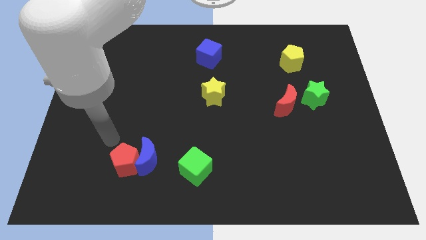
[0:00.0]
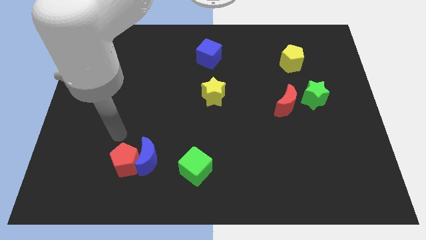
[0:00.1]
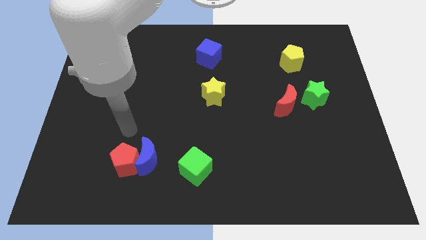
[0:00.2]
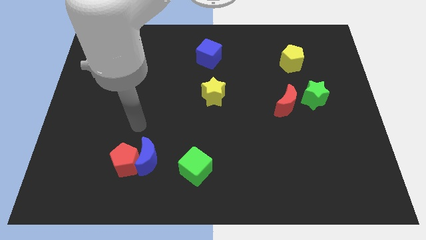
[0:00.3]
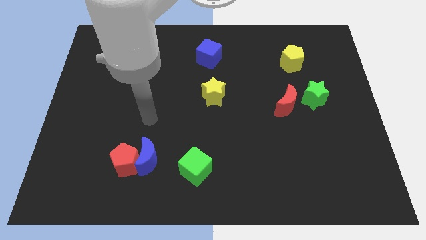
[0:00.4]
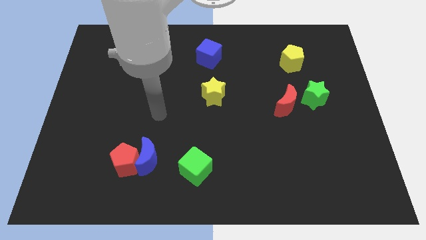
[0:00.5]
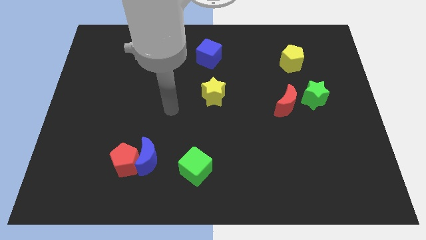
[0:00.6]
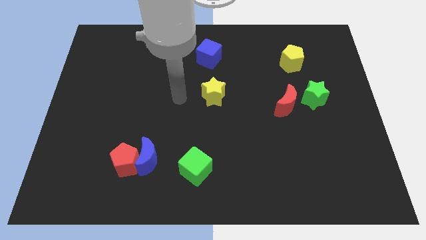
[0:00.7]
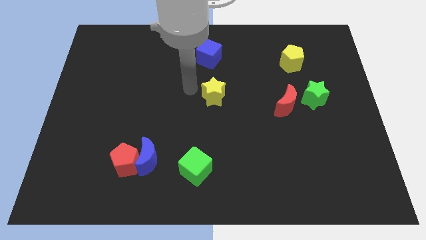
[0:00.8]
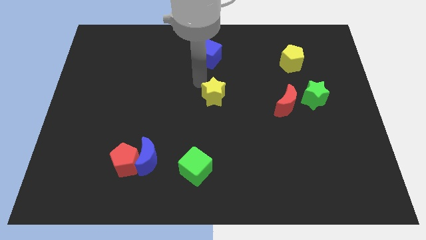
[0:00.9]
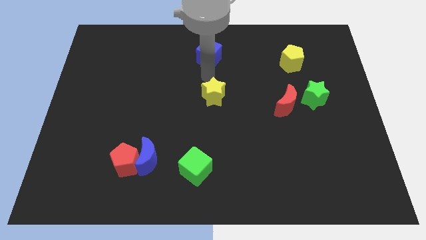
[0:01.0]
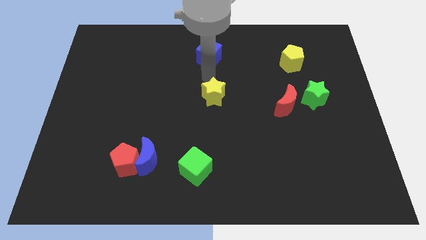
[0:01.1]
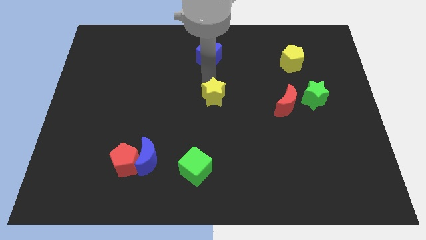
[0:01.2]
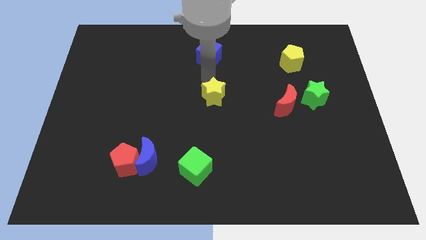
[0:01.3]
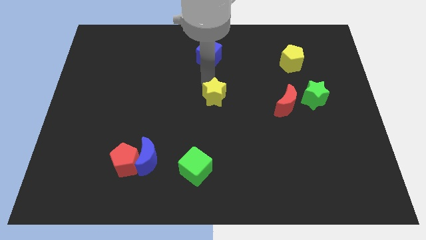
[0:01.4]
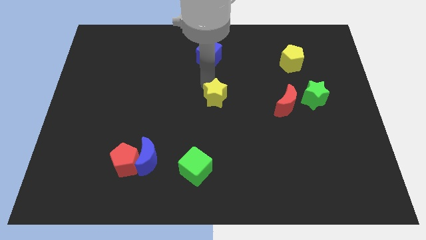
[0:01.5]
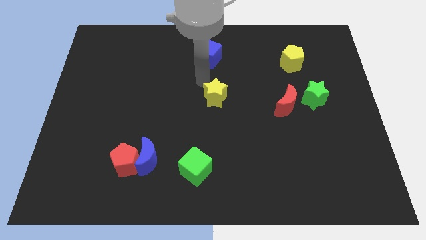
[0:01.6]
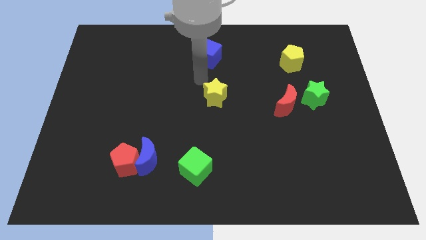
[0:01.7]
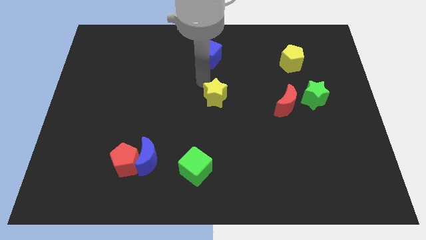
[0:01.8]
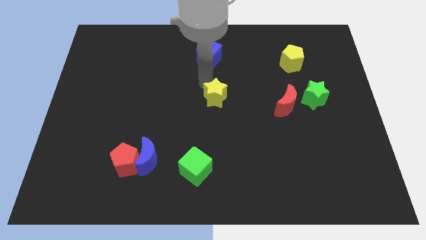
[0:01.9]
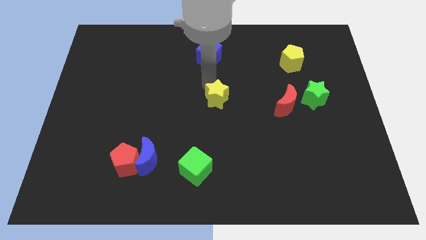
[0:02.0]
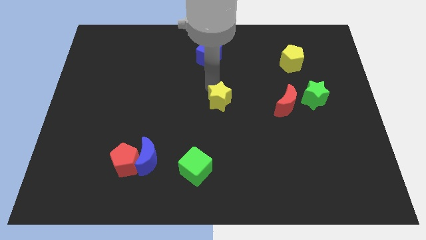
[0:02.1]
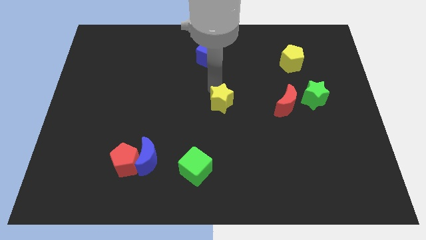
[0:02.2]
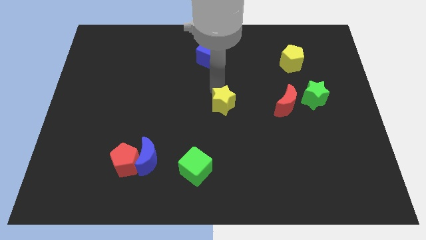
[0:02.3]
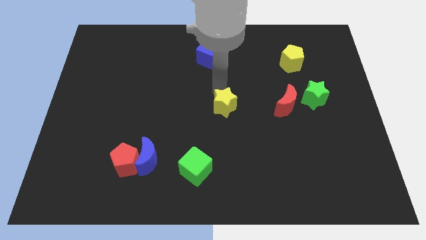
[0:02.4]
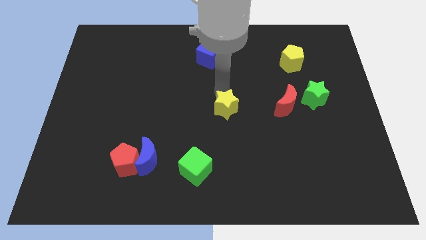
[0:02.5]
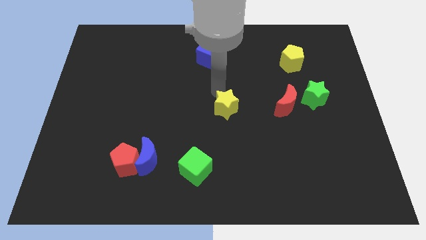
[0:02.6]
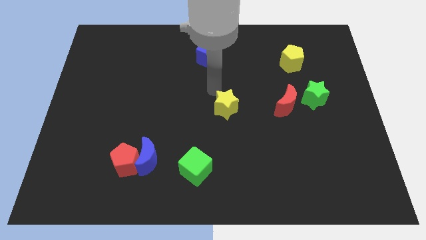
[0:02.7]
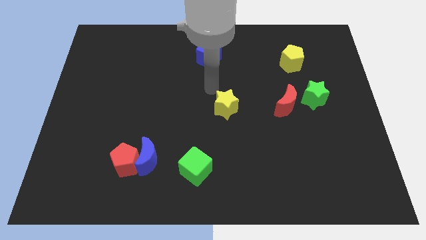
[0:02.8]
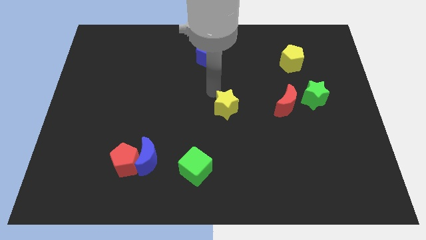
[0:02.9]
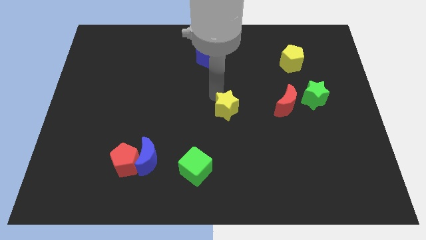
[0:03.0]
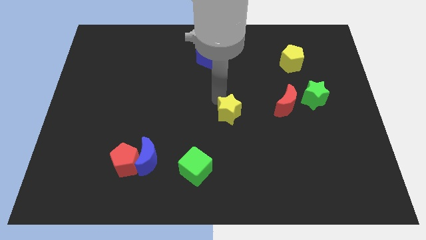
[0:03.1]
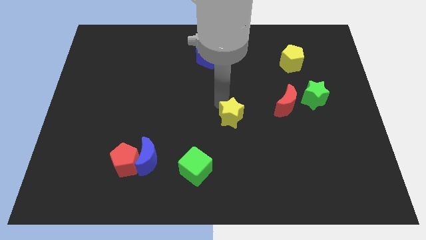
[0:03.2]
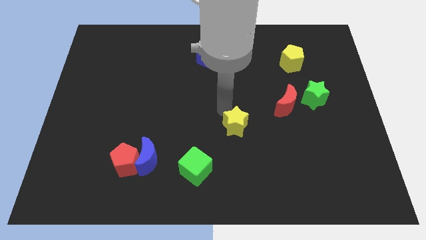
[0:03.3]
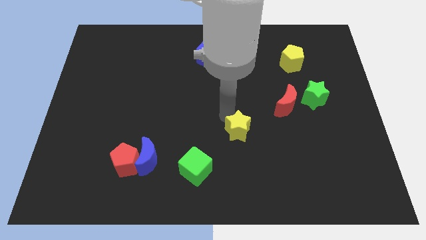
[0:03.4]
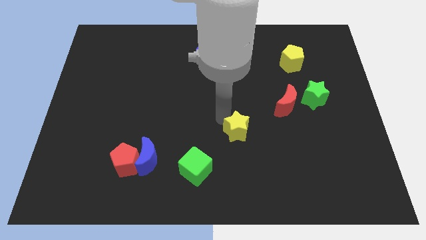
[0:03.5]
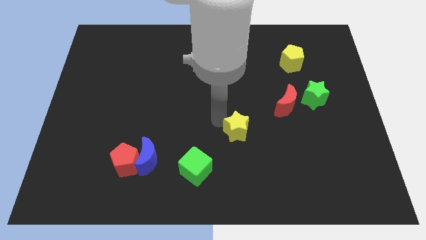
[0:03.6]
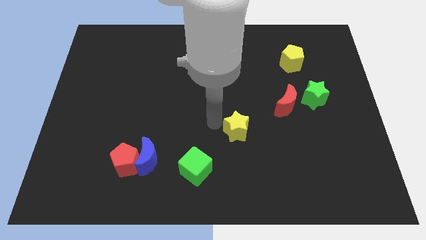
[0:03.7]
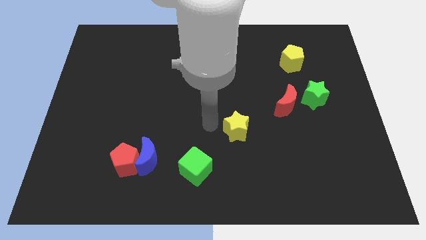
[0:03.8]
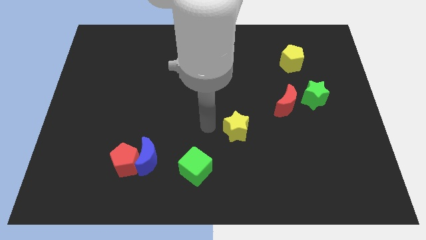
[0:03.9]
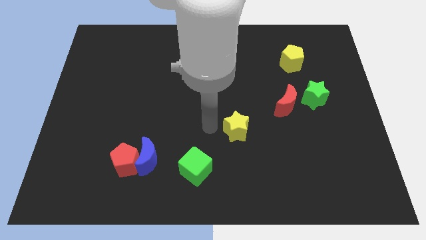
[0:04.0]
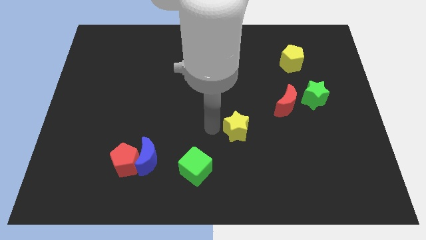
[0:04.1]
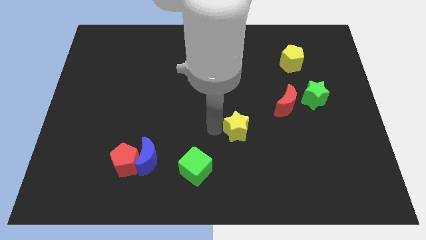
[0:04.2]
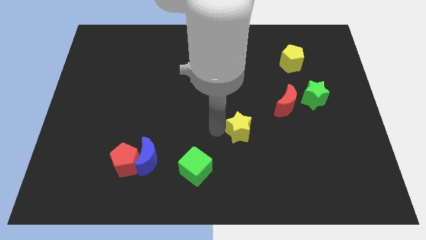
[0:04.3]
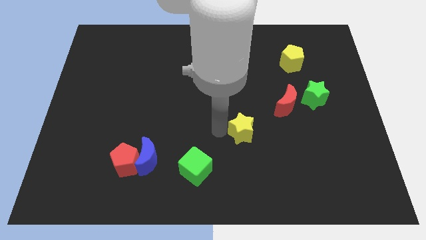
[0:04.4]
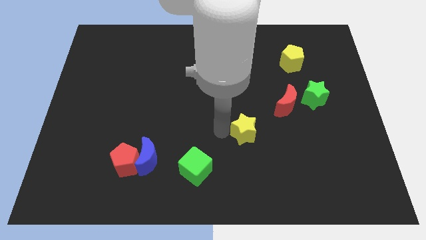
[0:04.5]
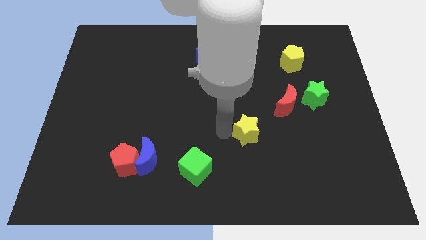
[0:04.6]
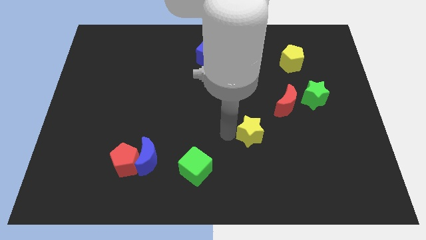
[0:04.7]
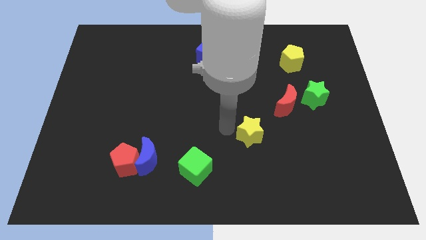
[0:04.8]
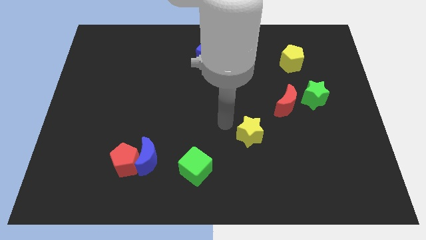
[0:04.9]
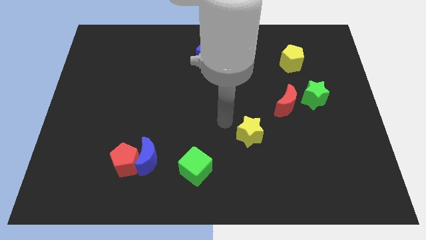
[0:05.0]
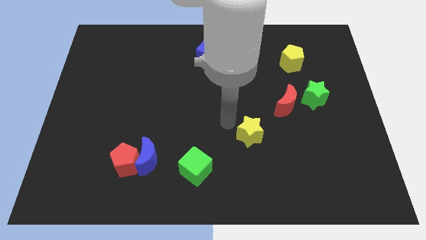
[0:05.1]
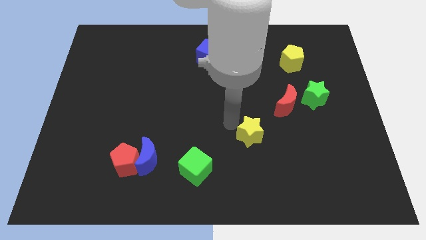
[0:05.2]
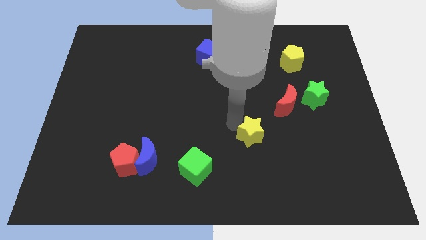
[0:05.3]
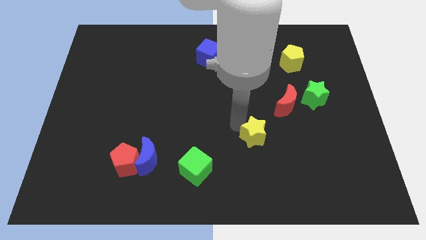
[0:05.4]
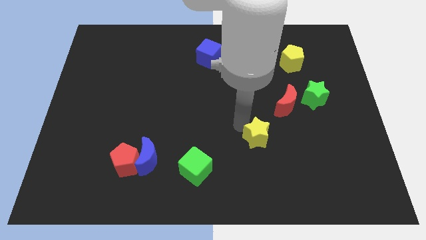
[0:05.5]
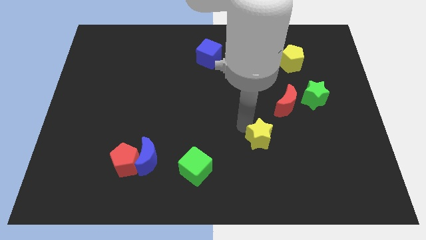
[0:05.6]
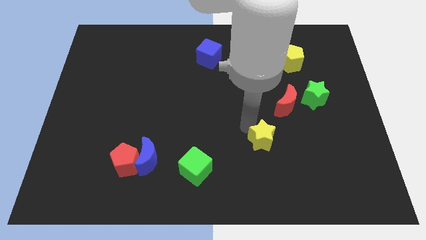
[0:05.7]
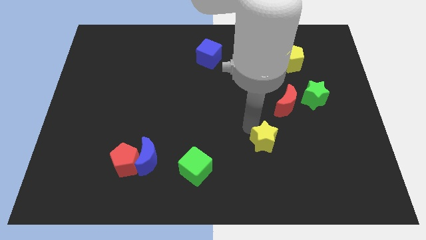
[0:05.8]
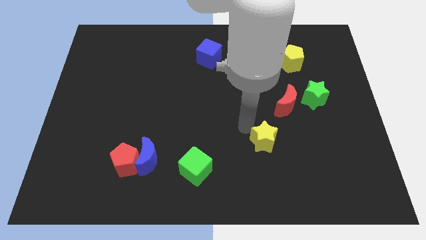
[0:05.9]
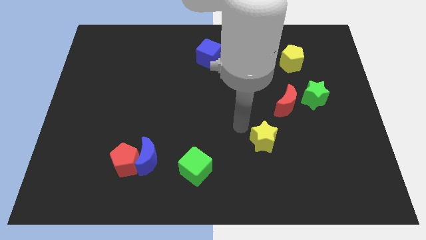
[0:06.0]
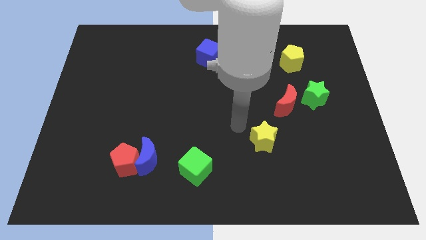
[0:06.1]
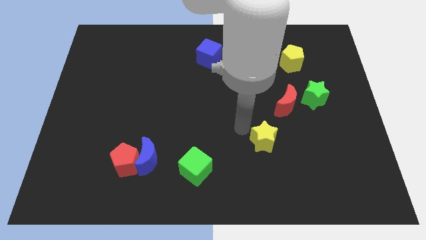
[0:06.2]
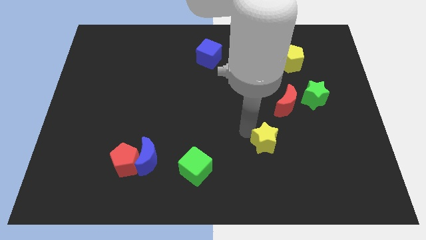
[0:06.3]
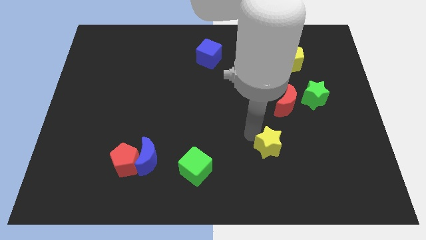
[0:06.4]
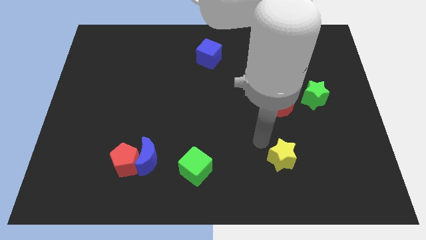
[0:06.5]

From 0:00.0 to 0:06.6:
slide the yellow star down and to the right

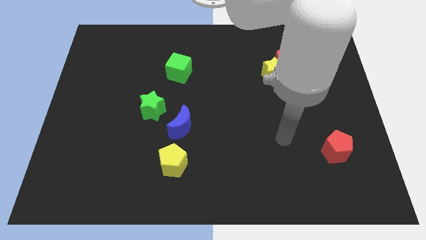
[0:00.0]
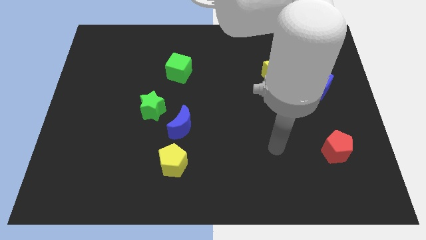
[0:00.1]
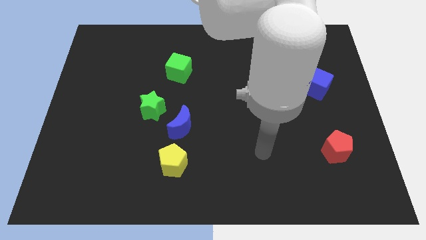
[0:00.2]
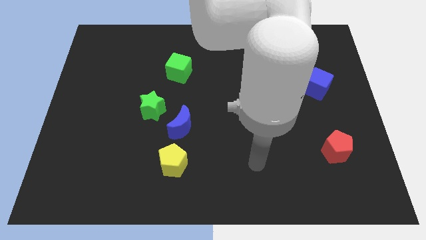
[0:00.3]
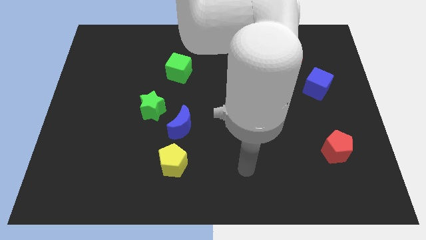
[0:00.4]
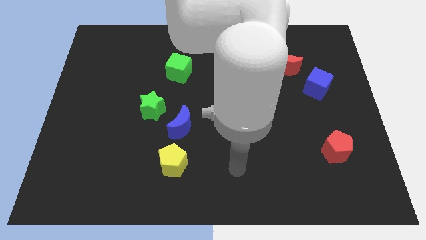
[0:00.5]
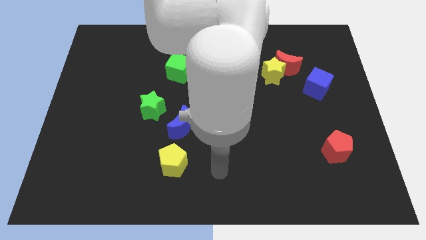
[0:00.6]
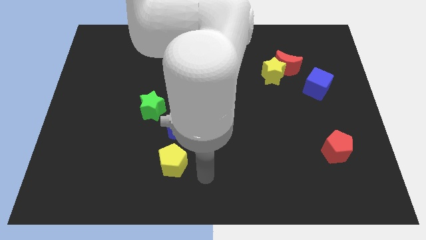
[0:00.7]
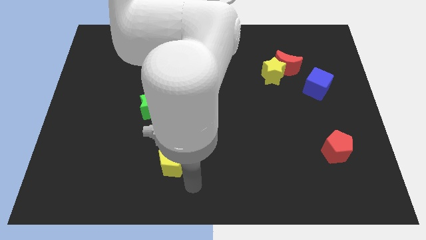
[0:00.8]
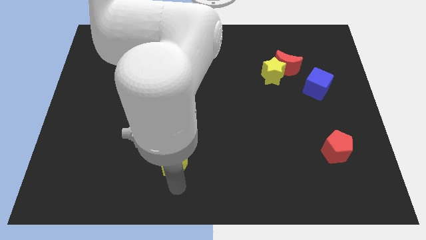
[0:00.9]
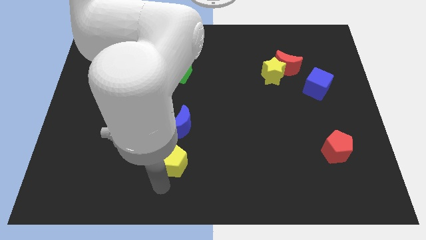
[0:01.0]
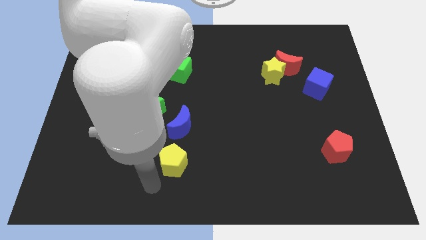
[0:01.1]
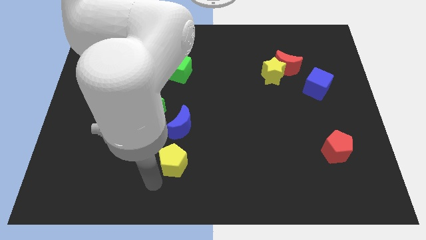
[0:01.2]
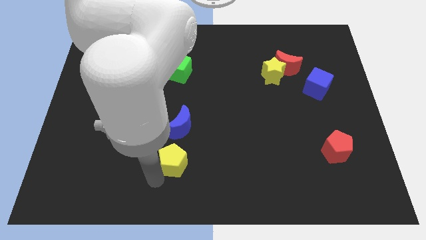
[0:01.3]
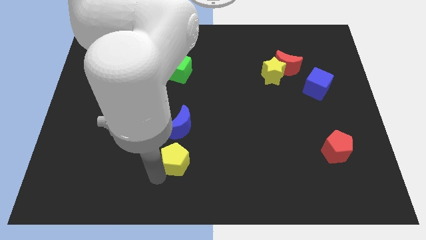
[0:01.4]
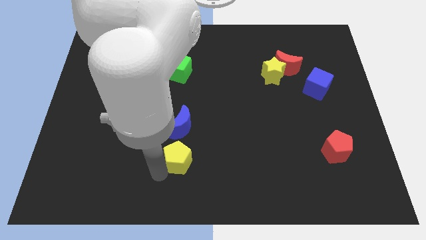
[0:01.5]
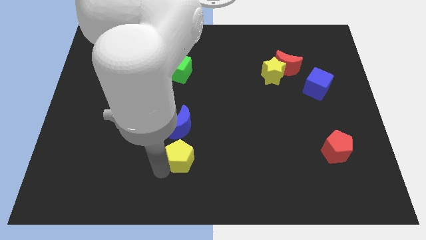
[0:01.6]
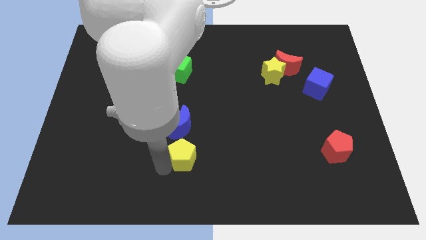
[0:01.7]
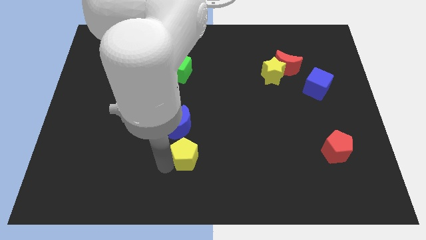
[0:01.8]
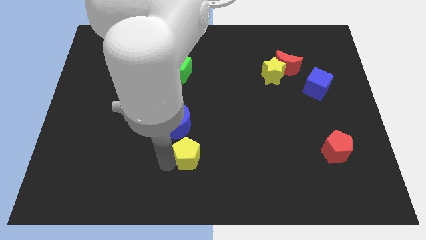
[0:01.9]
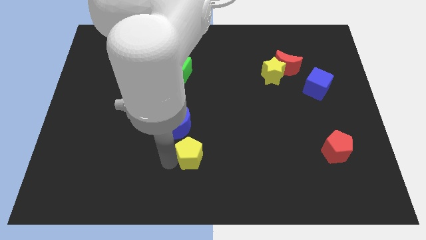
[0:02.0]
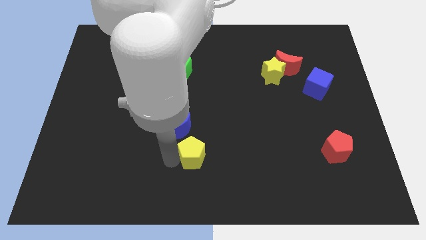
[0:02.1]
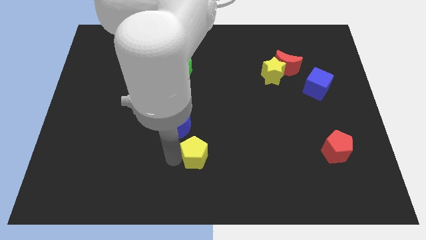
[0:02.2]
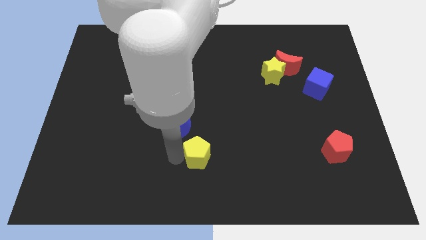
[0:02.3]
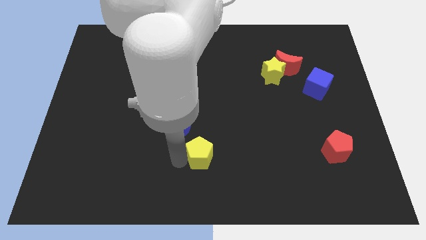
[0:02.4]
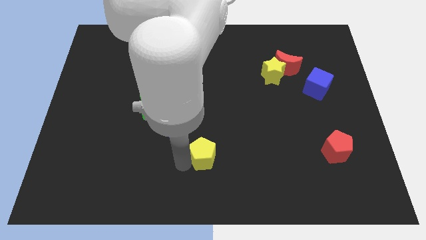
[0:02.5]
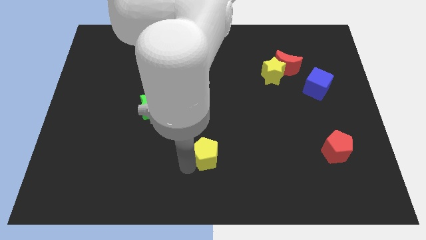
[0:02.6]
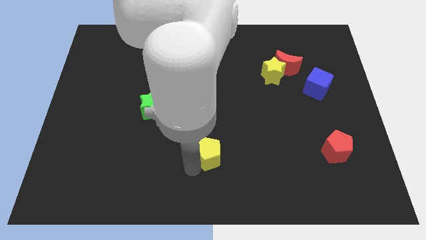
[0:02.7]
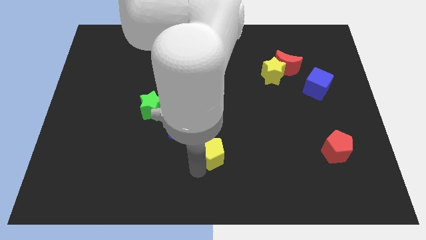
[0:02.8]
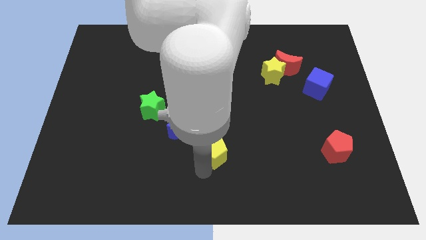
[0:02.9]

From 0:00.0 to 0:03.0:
move the yellow pentagon up and right somewhat
